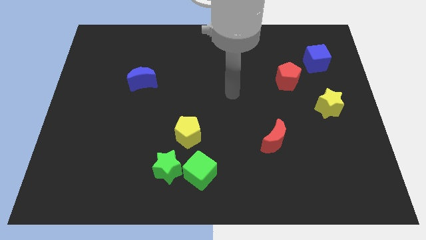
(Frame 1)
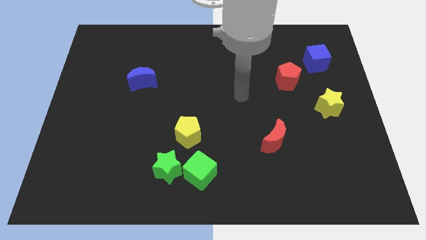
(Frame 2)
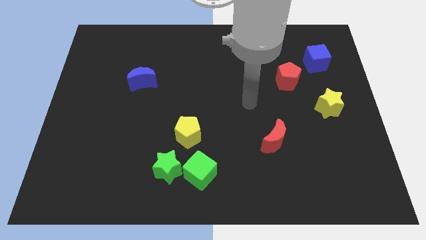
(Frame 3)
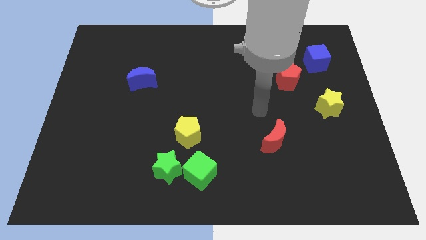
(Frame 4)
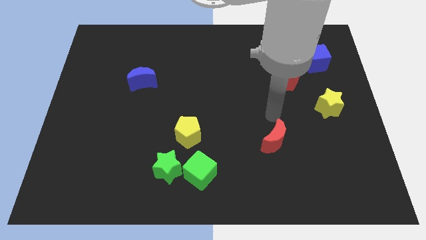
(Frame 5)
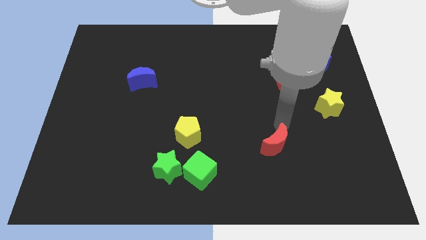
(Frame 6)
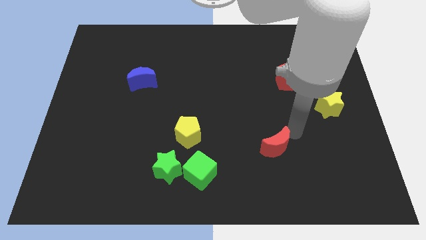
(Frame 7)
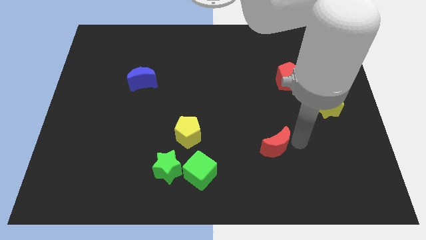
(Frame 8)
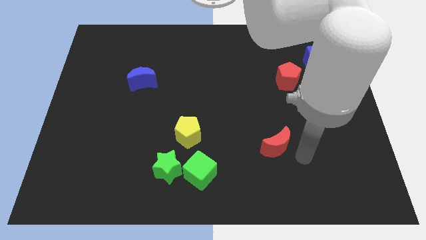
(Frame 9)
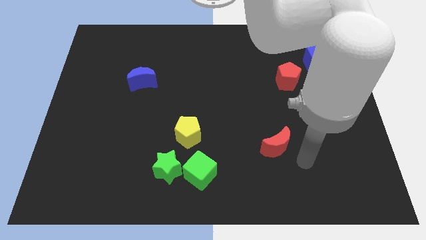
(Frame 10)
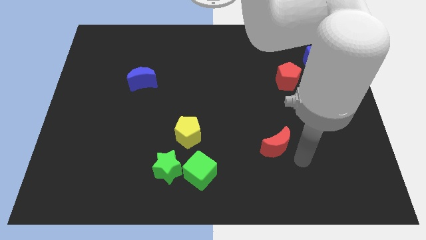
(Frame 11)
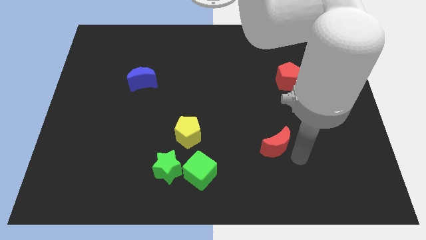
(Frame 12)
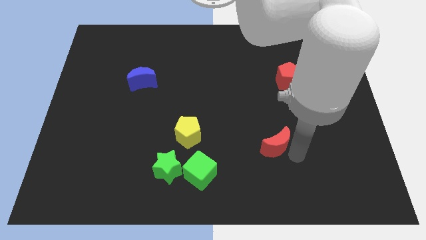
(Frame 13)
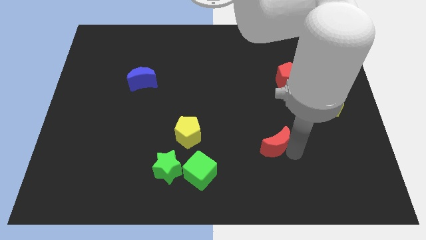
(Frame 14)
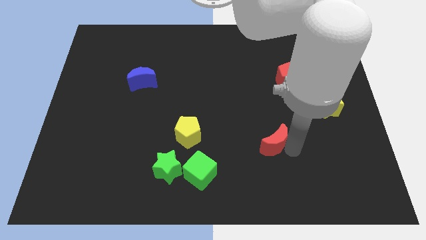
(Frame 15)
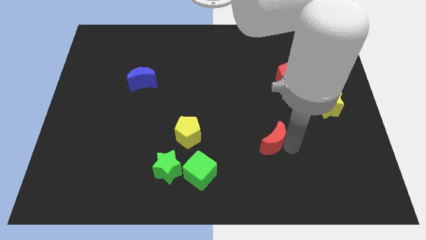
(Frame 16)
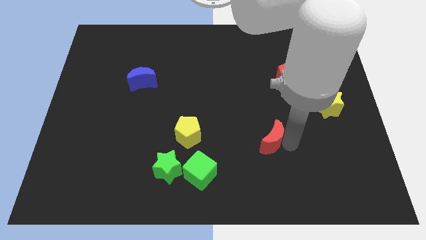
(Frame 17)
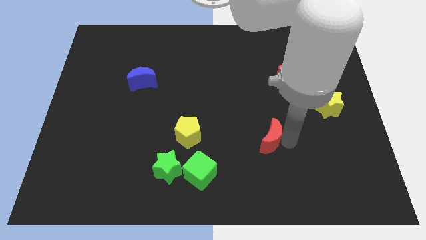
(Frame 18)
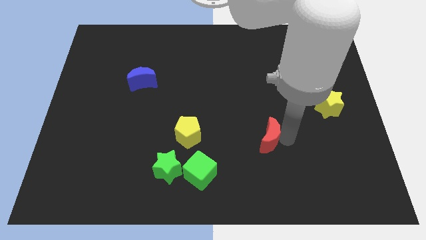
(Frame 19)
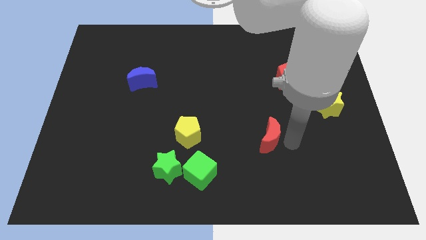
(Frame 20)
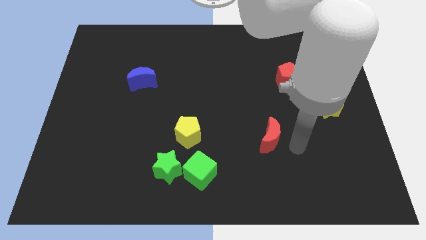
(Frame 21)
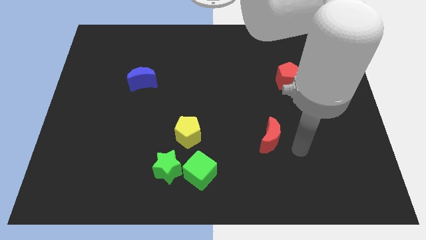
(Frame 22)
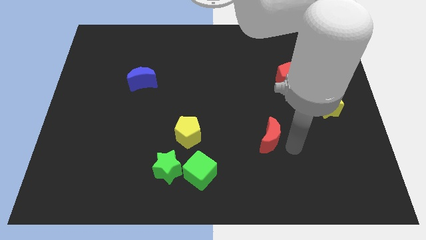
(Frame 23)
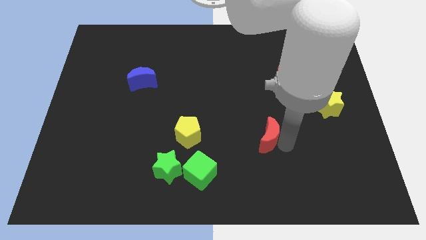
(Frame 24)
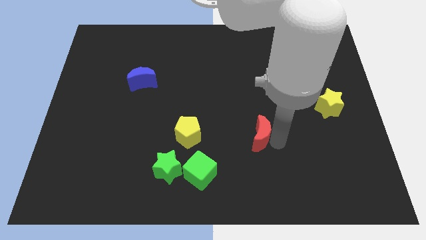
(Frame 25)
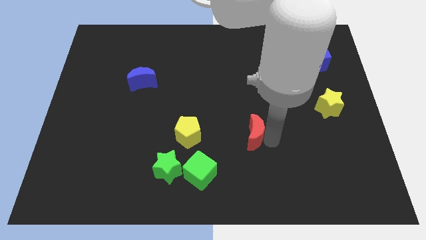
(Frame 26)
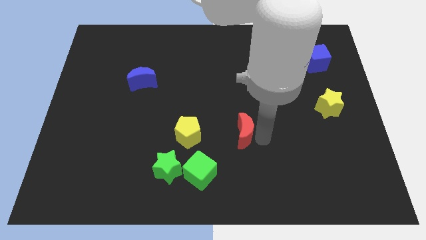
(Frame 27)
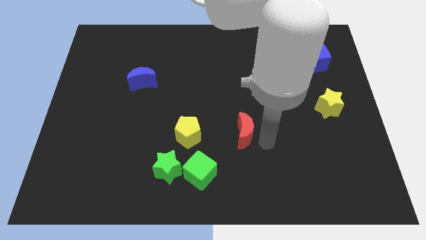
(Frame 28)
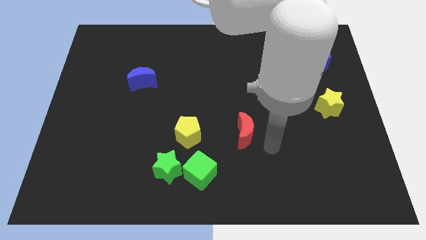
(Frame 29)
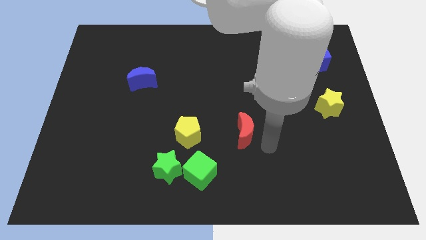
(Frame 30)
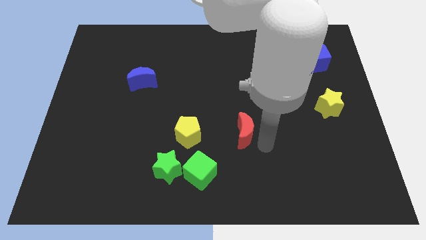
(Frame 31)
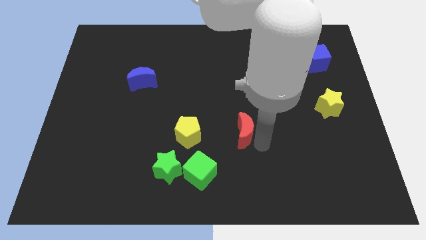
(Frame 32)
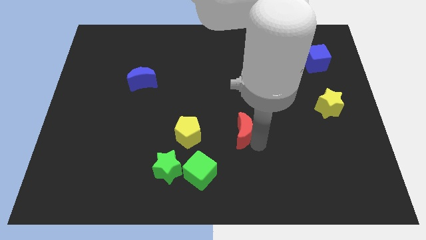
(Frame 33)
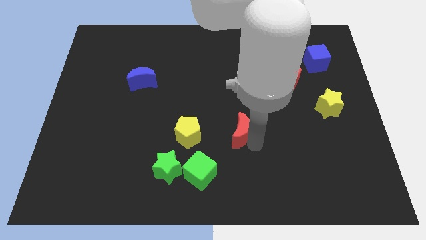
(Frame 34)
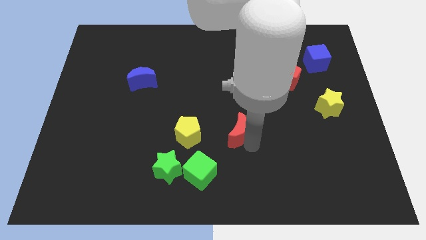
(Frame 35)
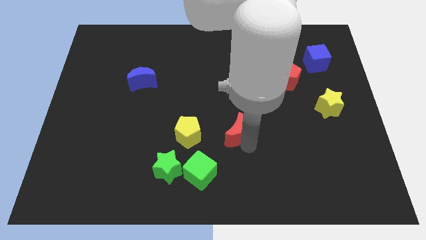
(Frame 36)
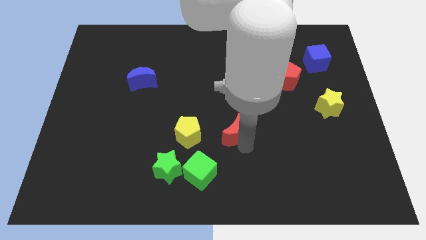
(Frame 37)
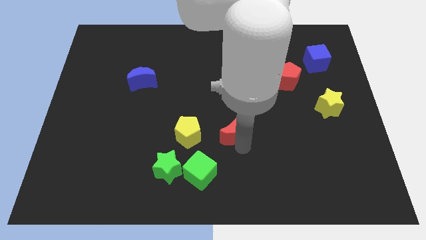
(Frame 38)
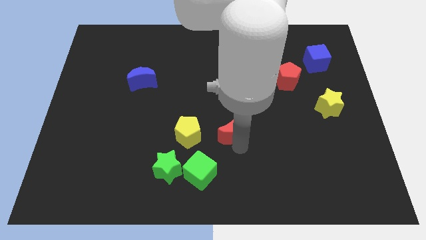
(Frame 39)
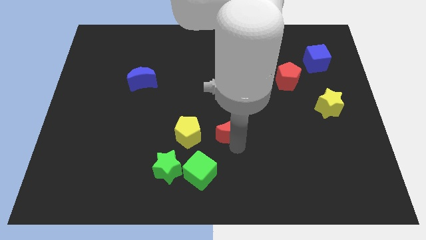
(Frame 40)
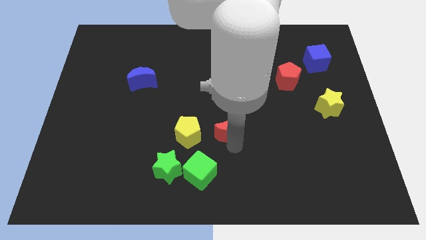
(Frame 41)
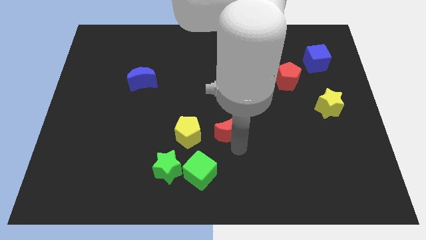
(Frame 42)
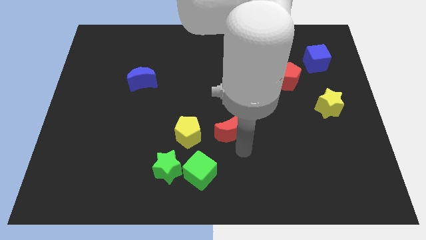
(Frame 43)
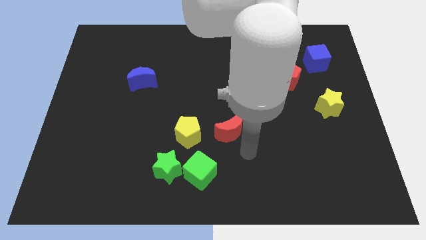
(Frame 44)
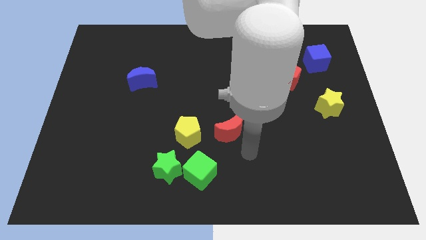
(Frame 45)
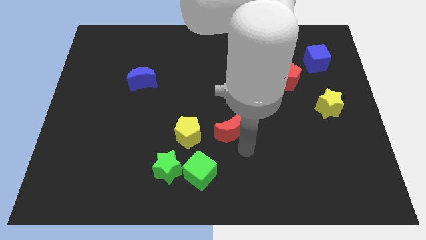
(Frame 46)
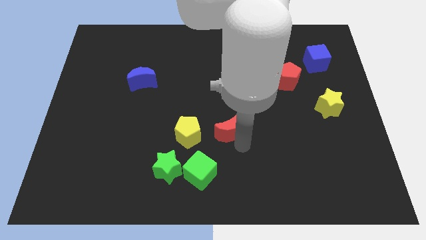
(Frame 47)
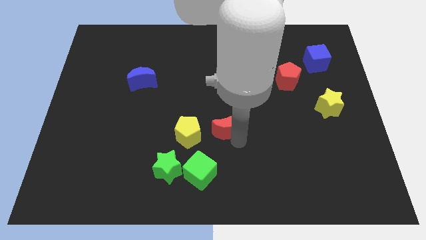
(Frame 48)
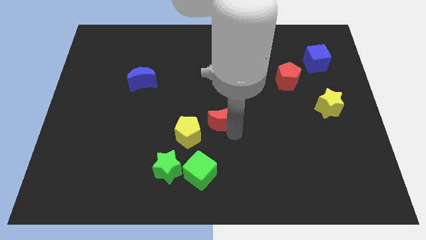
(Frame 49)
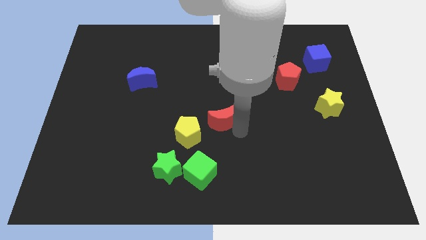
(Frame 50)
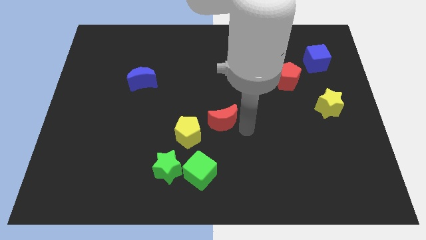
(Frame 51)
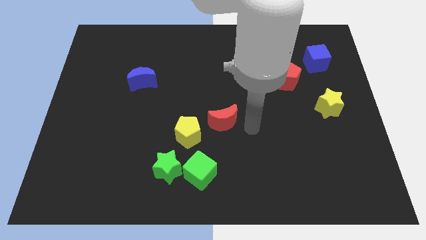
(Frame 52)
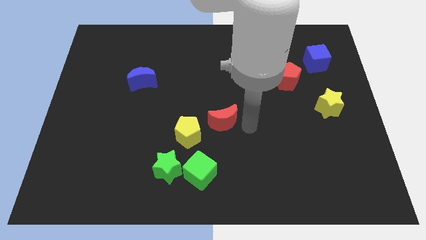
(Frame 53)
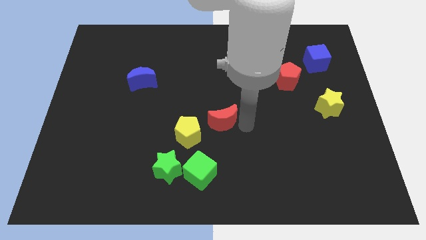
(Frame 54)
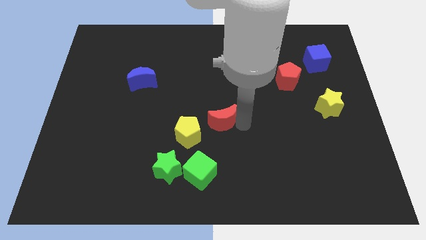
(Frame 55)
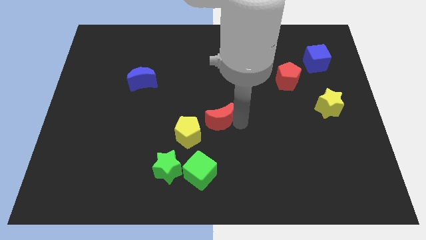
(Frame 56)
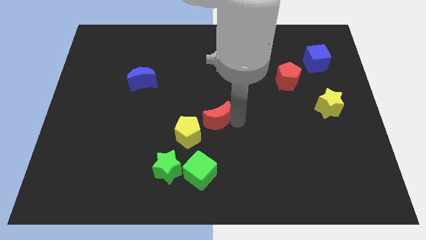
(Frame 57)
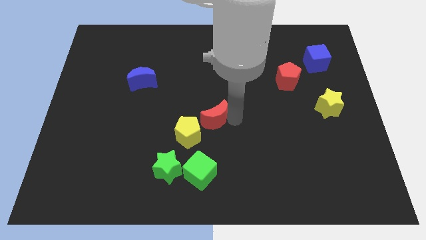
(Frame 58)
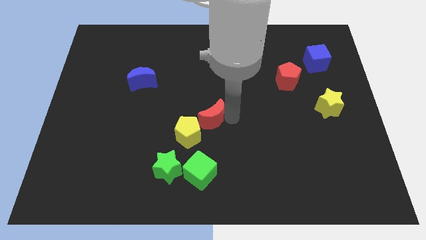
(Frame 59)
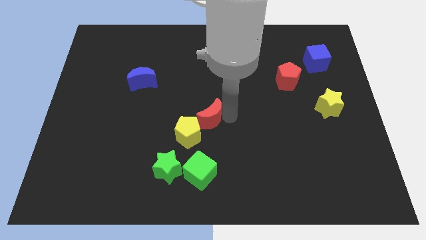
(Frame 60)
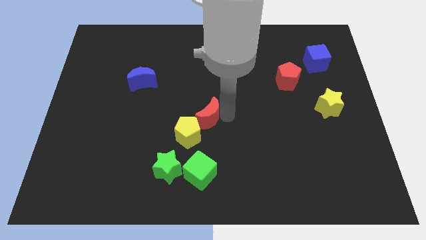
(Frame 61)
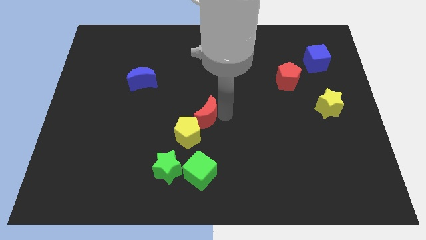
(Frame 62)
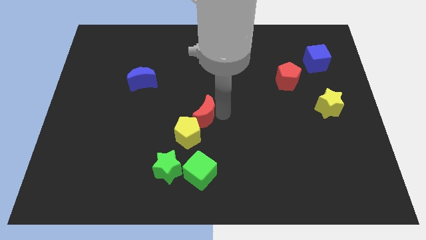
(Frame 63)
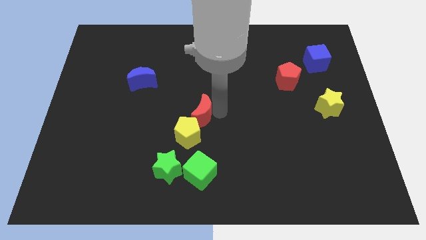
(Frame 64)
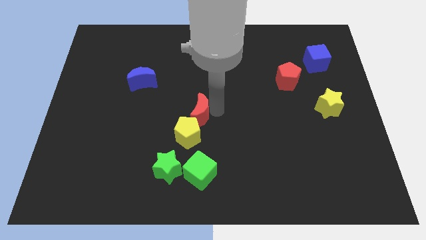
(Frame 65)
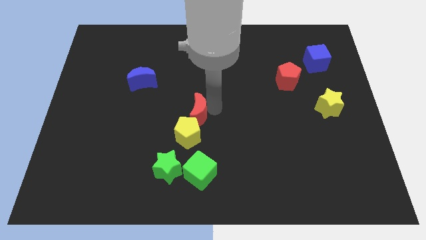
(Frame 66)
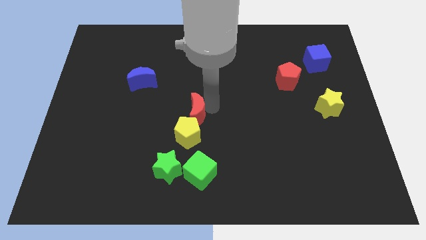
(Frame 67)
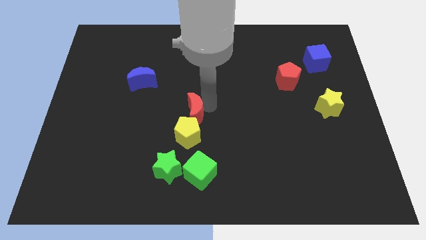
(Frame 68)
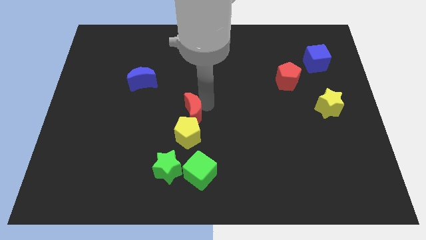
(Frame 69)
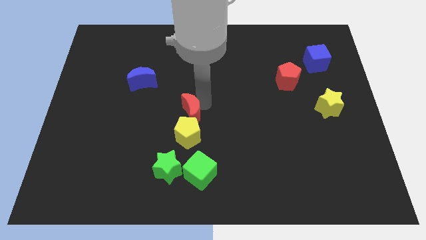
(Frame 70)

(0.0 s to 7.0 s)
slide the red moon to the top left side of the yellow pentagon
